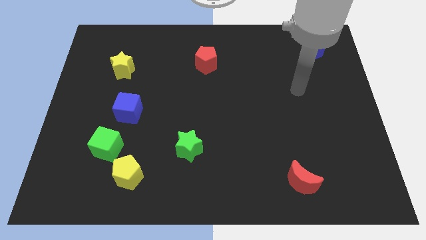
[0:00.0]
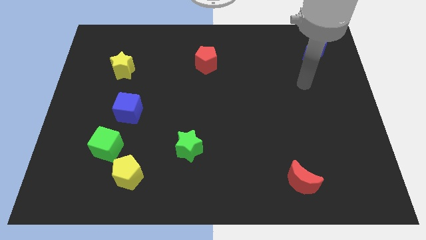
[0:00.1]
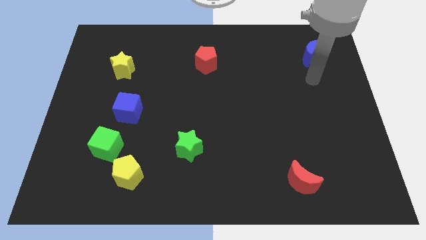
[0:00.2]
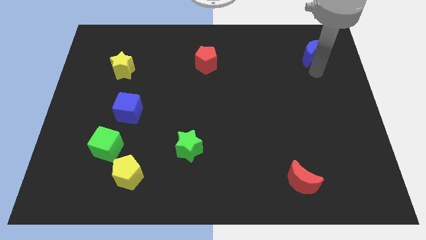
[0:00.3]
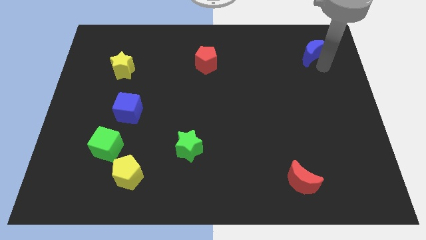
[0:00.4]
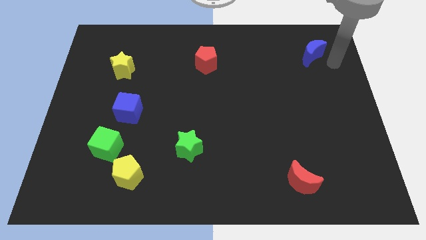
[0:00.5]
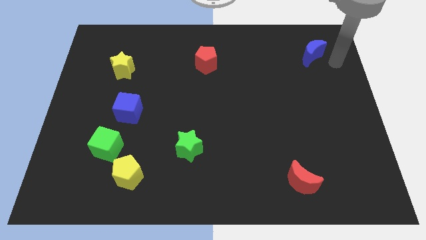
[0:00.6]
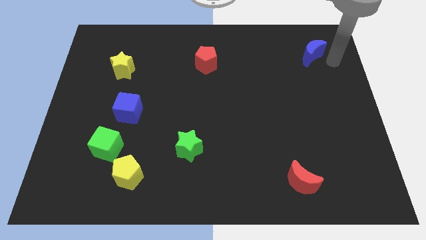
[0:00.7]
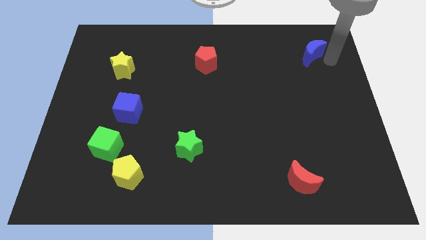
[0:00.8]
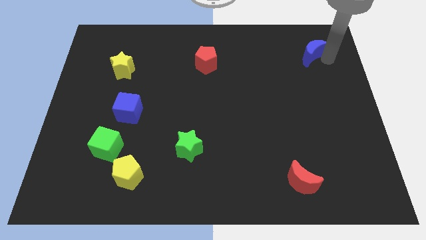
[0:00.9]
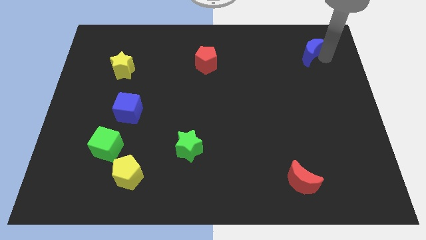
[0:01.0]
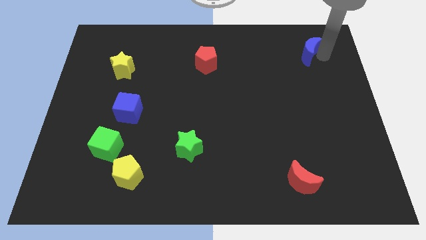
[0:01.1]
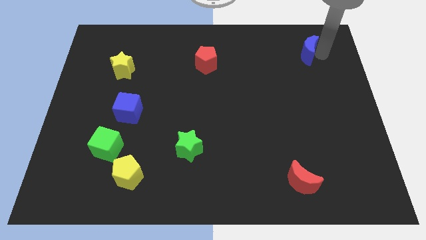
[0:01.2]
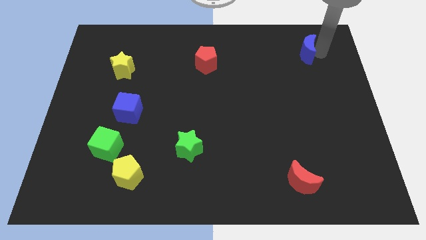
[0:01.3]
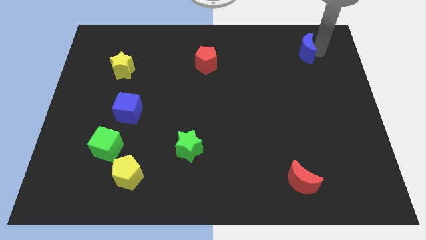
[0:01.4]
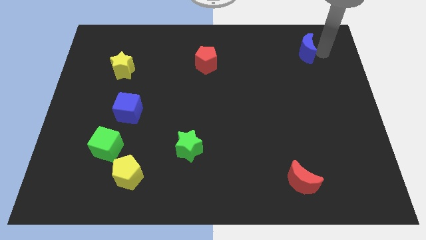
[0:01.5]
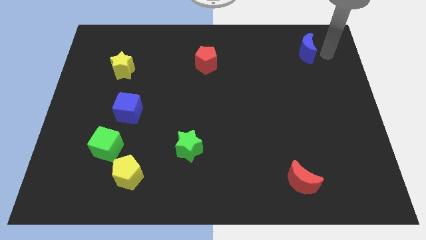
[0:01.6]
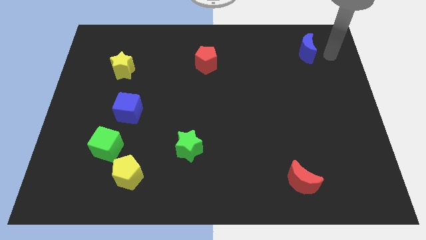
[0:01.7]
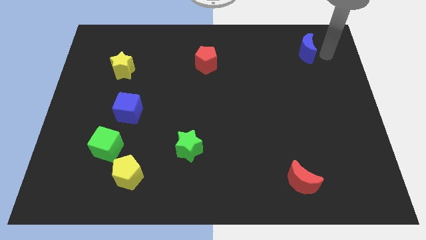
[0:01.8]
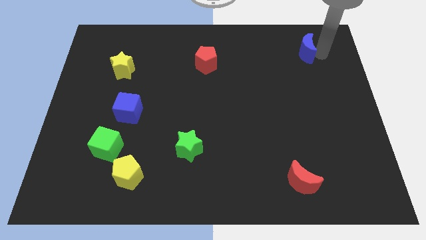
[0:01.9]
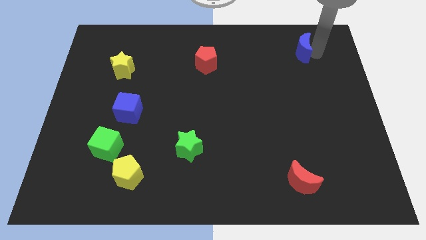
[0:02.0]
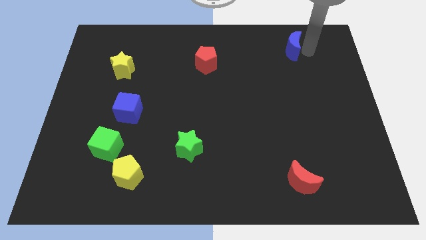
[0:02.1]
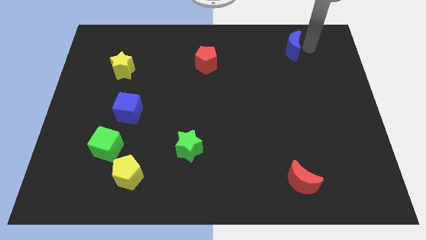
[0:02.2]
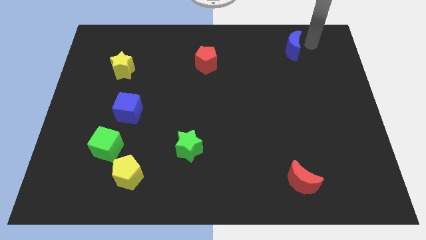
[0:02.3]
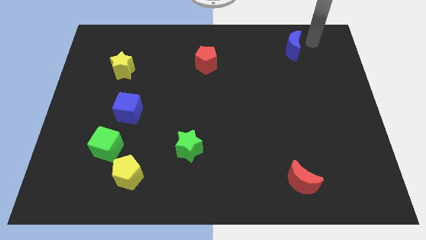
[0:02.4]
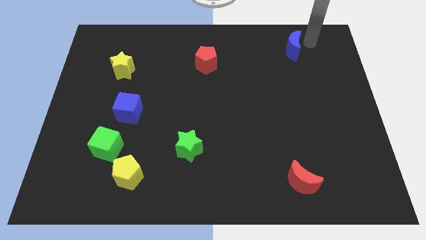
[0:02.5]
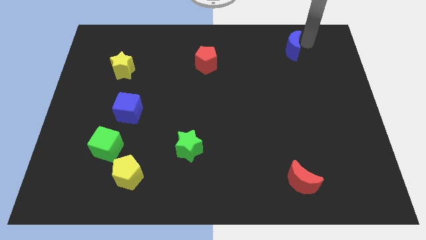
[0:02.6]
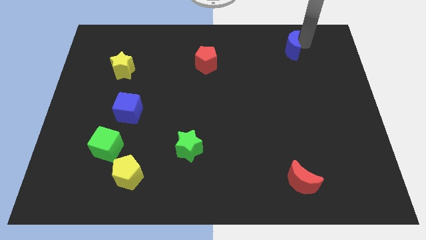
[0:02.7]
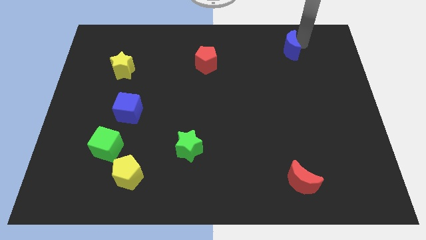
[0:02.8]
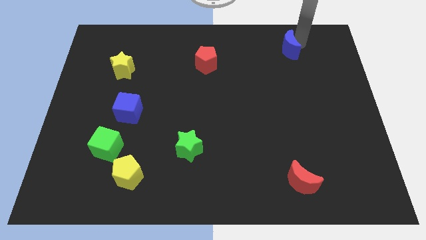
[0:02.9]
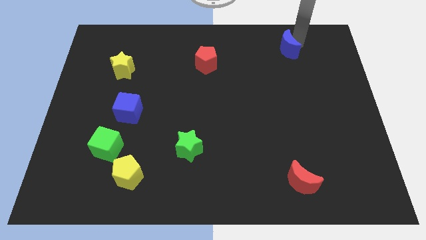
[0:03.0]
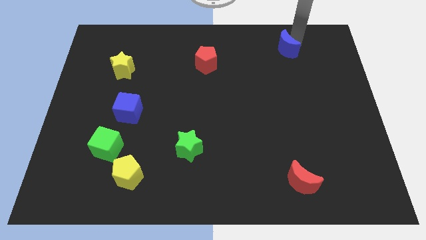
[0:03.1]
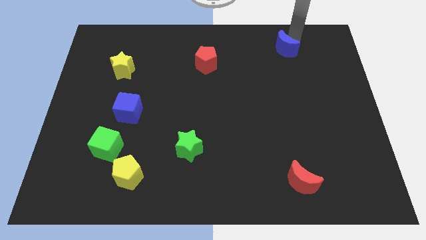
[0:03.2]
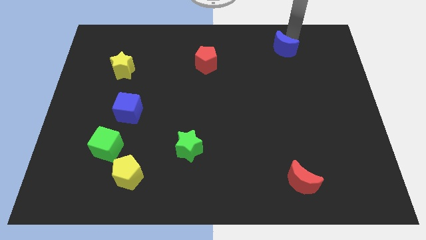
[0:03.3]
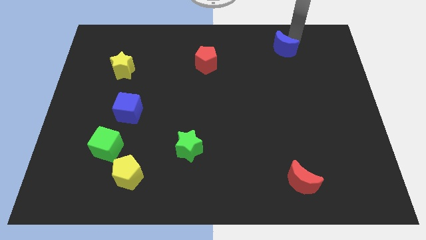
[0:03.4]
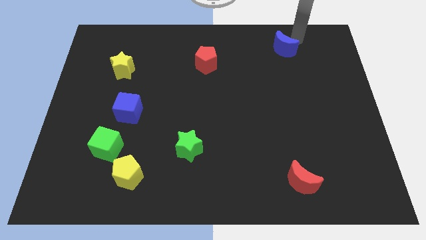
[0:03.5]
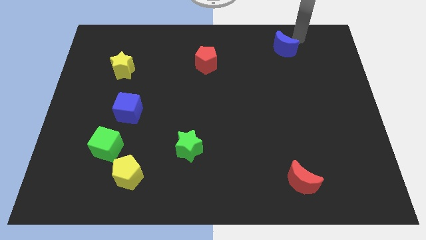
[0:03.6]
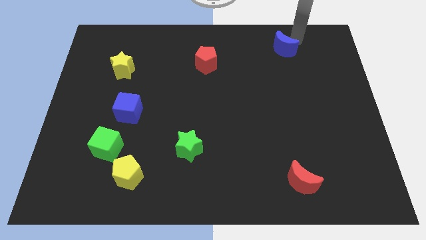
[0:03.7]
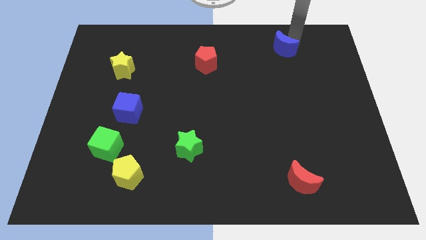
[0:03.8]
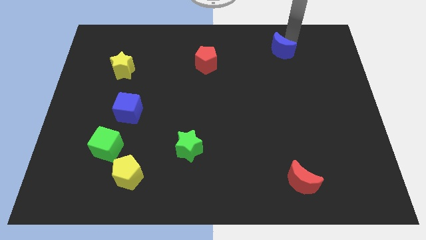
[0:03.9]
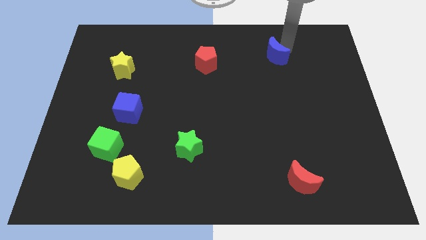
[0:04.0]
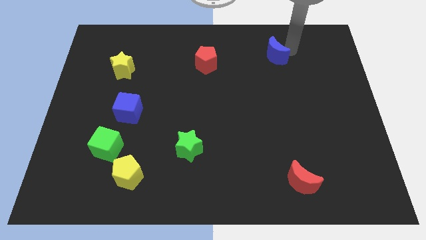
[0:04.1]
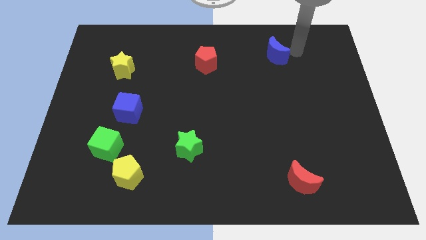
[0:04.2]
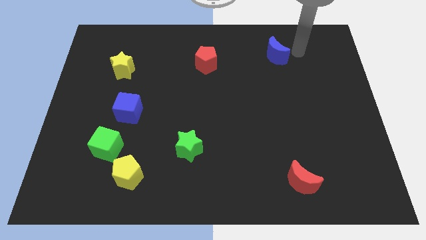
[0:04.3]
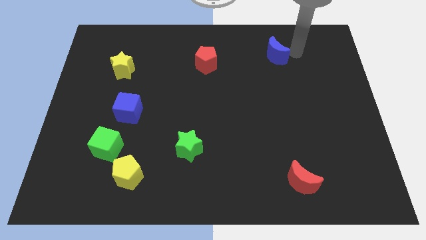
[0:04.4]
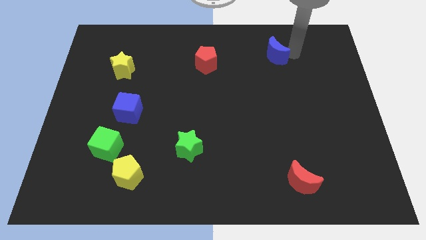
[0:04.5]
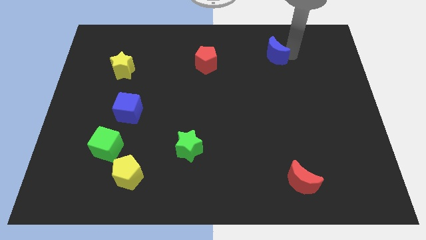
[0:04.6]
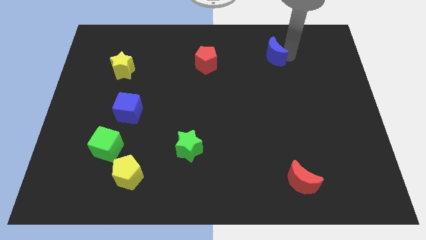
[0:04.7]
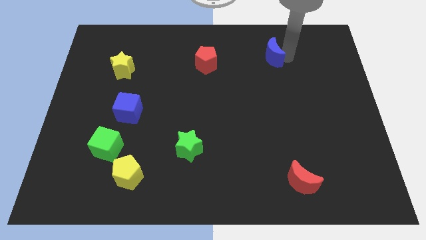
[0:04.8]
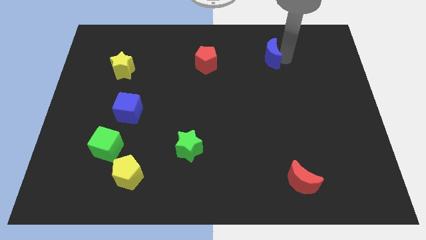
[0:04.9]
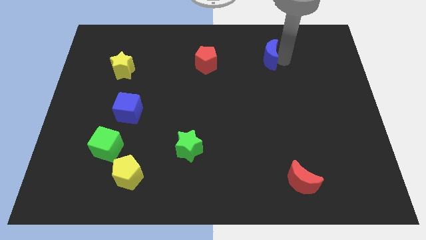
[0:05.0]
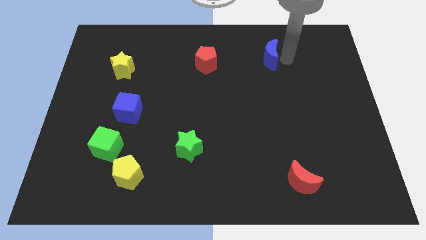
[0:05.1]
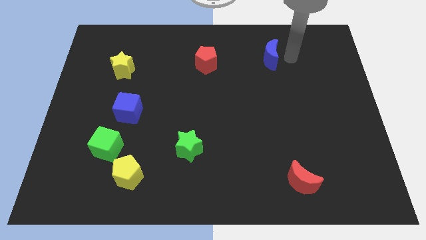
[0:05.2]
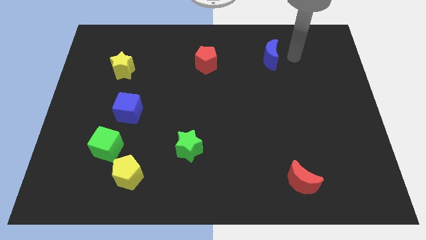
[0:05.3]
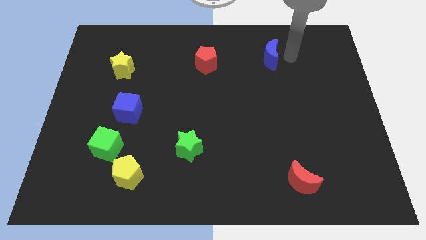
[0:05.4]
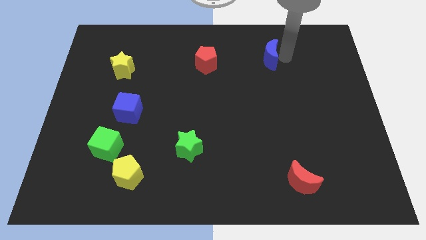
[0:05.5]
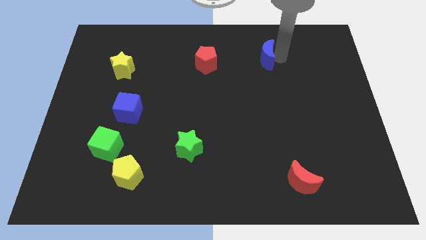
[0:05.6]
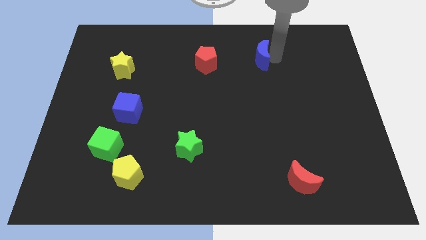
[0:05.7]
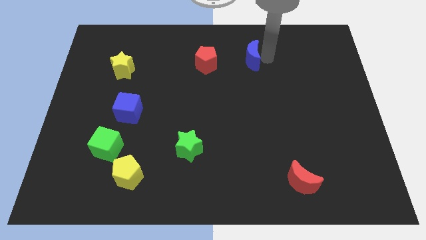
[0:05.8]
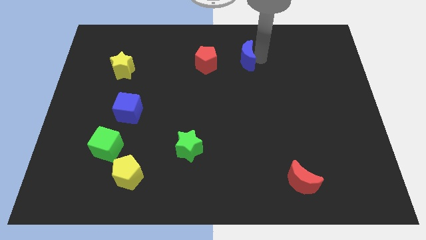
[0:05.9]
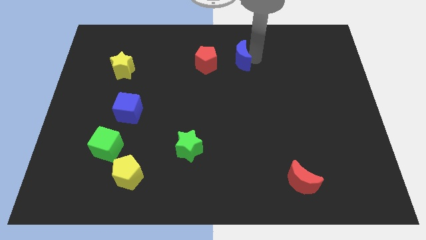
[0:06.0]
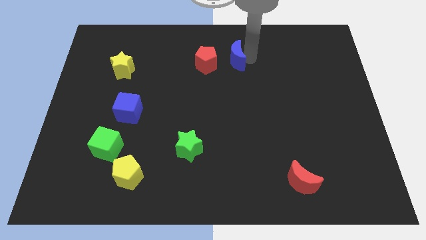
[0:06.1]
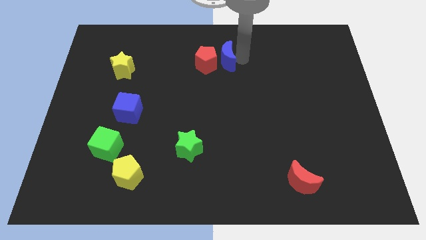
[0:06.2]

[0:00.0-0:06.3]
move the blue moon towards the red pentagon

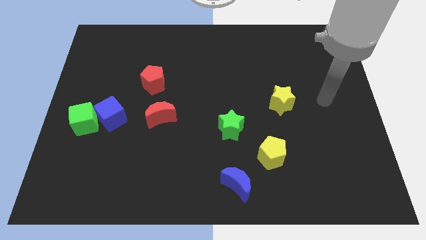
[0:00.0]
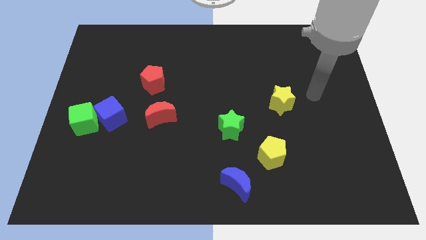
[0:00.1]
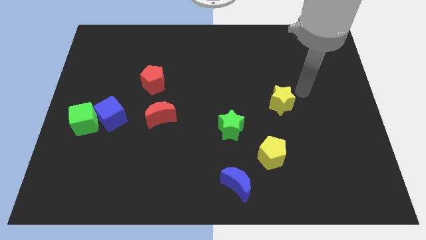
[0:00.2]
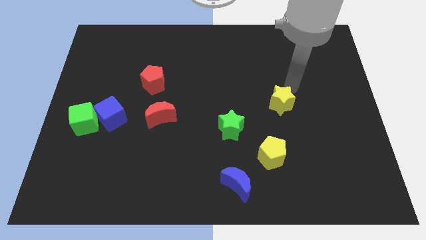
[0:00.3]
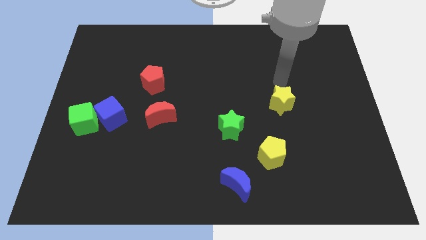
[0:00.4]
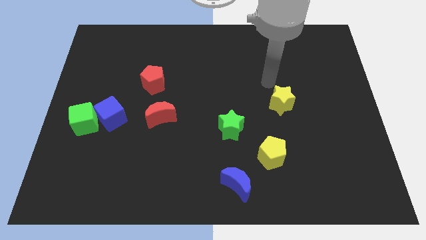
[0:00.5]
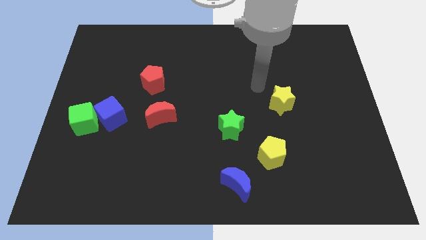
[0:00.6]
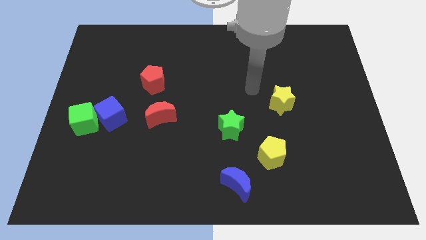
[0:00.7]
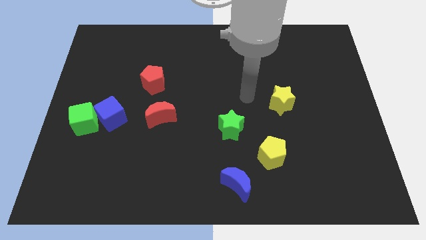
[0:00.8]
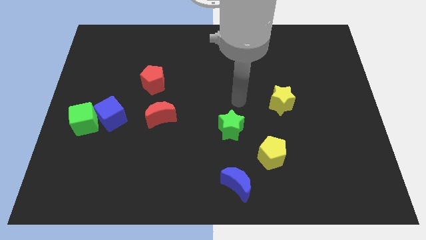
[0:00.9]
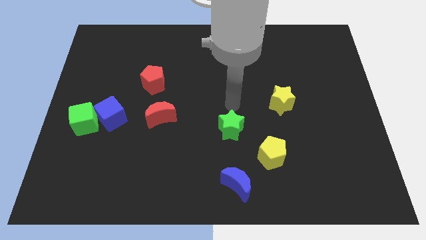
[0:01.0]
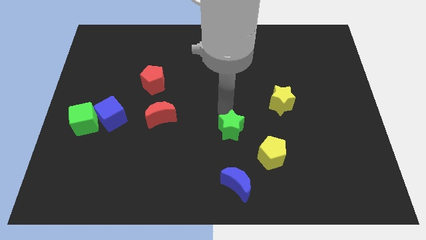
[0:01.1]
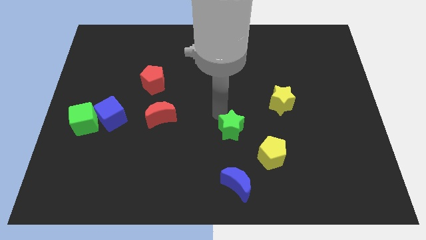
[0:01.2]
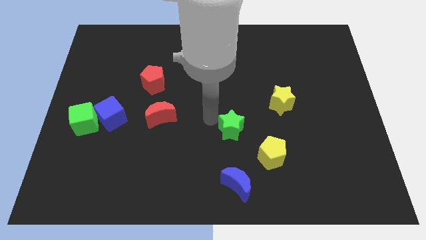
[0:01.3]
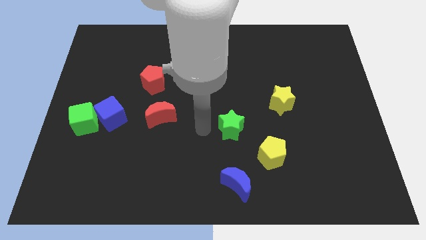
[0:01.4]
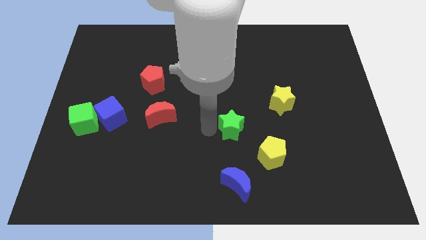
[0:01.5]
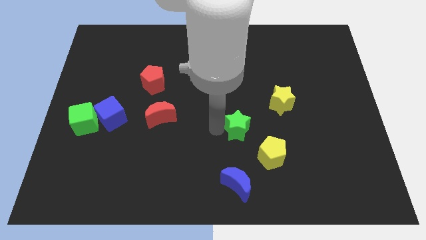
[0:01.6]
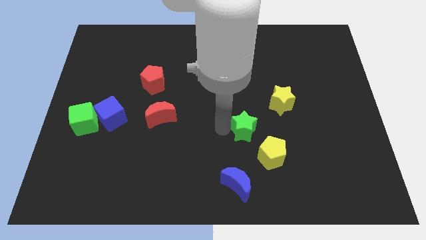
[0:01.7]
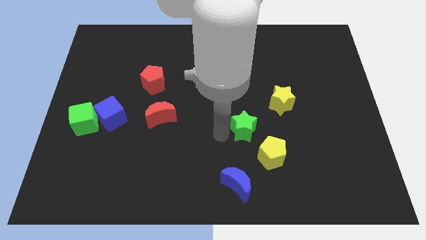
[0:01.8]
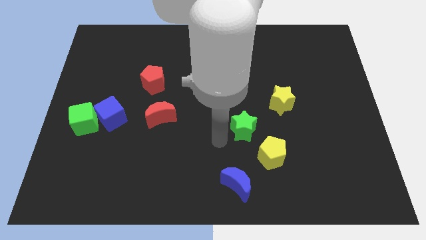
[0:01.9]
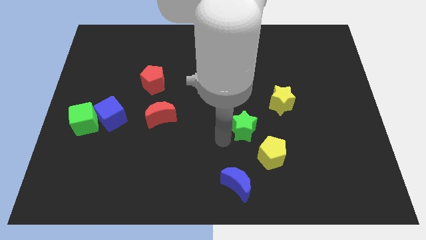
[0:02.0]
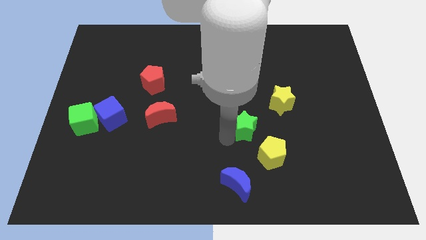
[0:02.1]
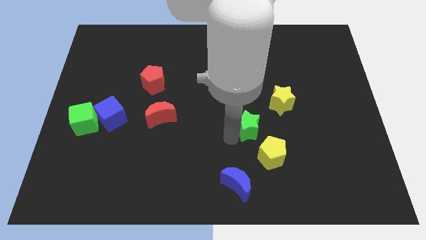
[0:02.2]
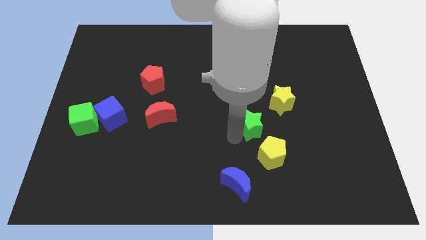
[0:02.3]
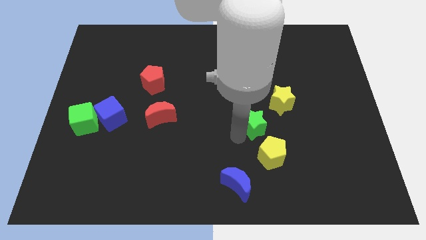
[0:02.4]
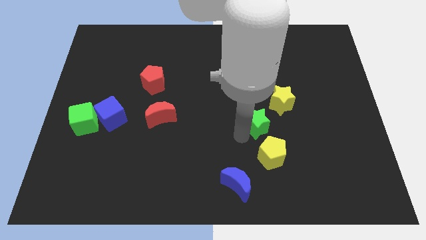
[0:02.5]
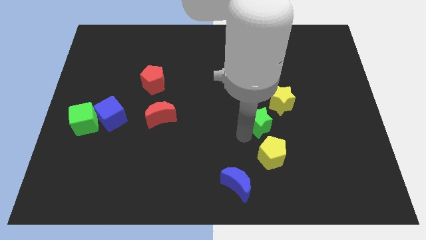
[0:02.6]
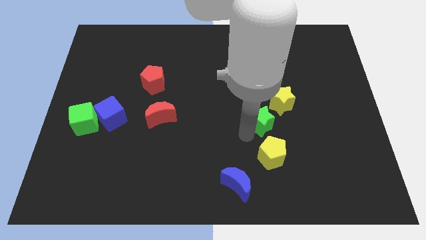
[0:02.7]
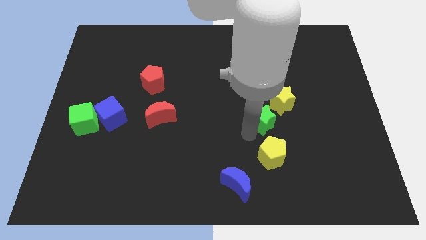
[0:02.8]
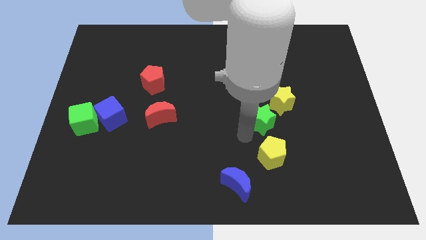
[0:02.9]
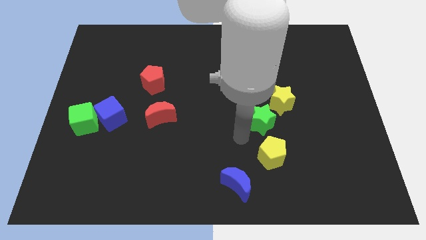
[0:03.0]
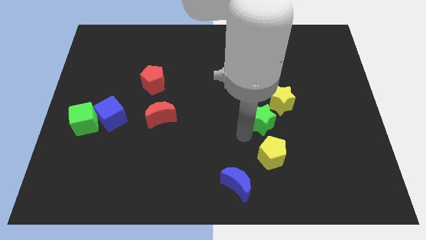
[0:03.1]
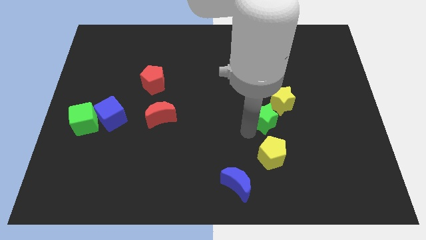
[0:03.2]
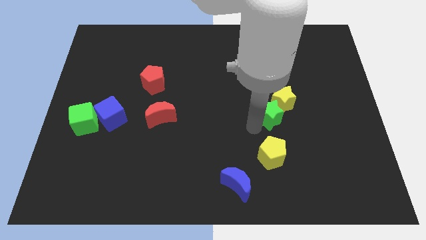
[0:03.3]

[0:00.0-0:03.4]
put the green star close to the yellow star
